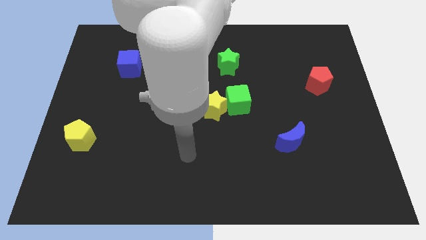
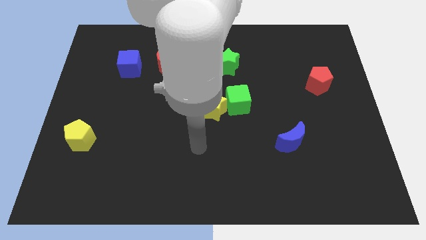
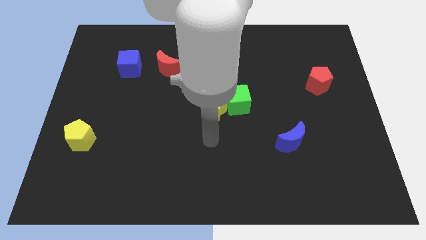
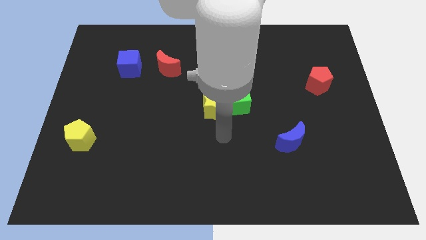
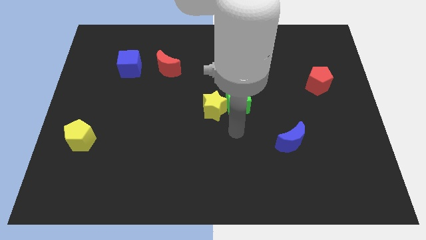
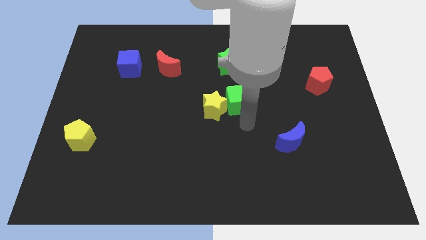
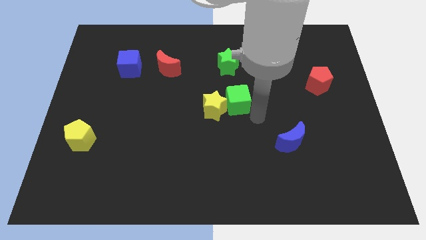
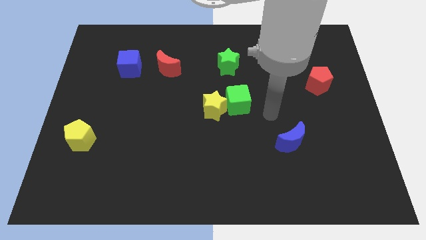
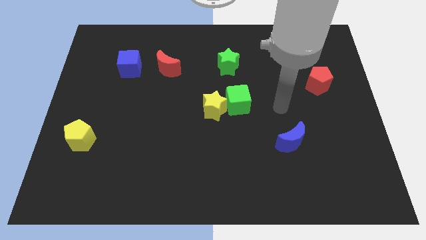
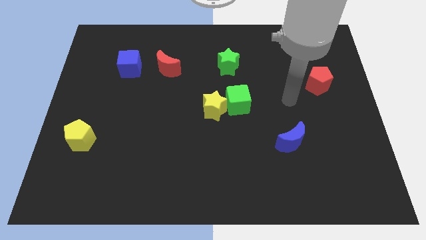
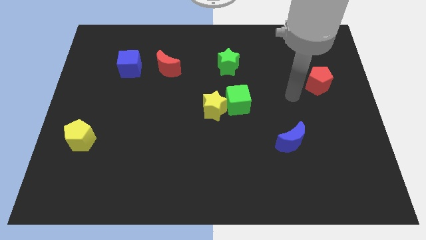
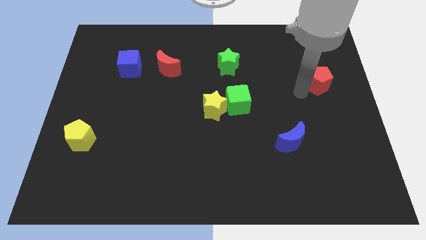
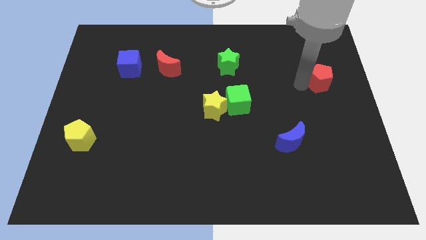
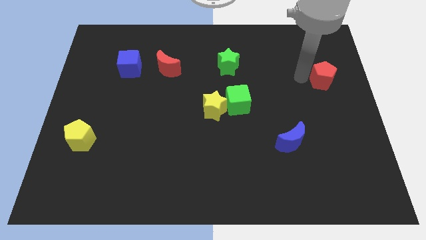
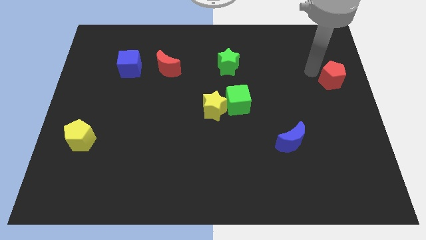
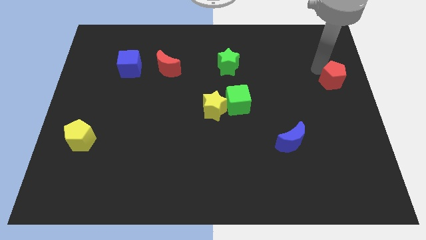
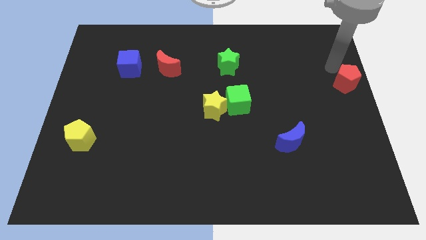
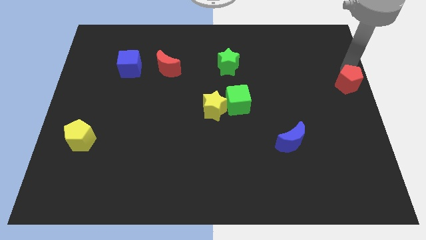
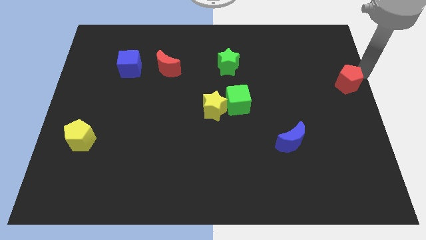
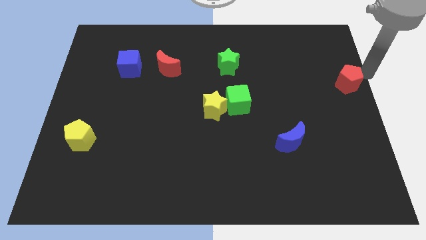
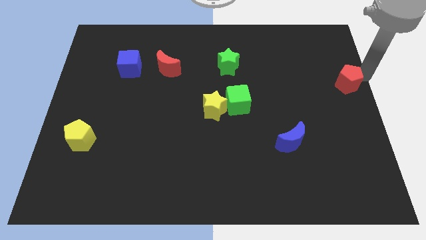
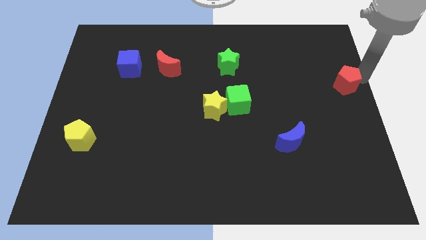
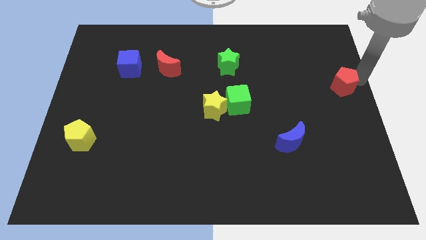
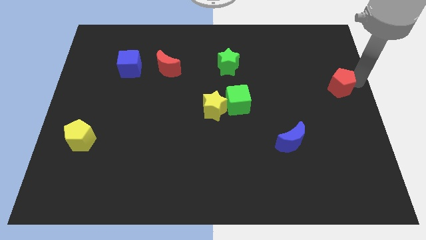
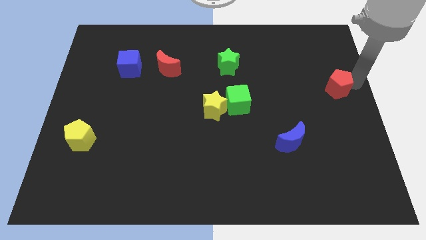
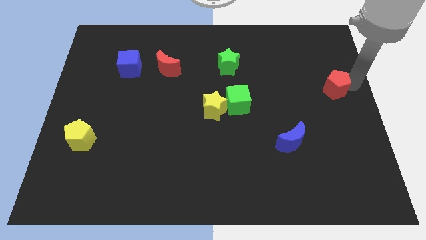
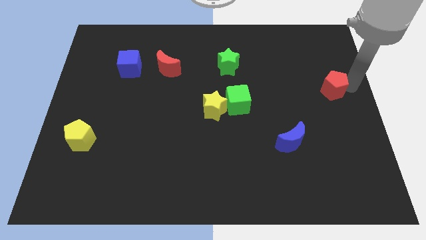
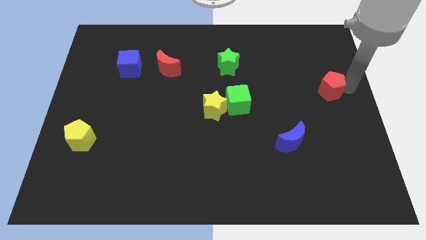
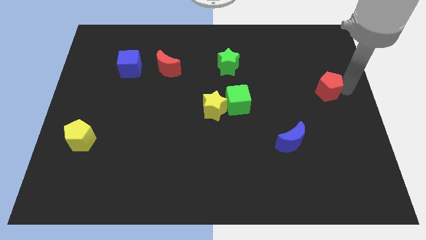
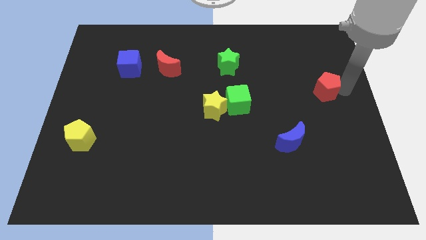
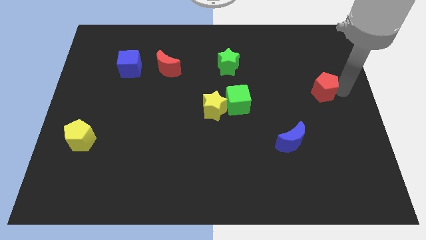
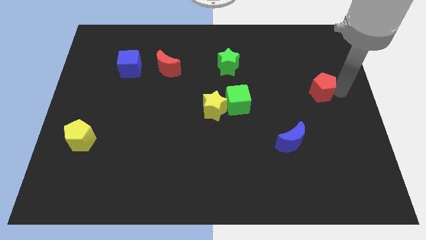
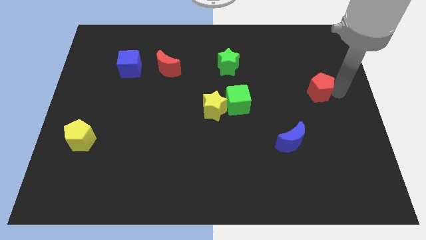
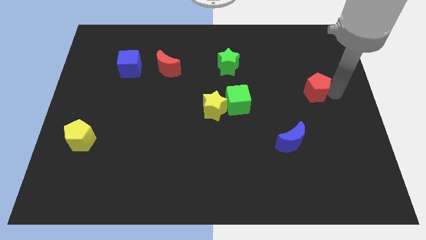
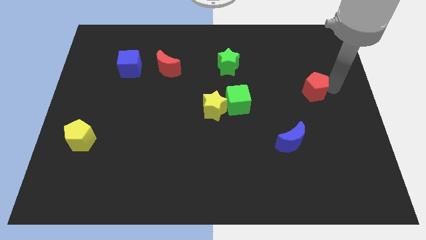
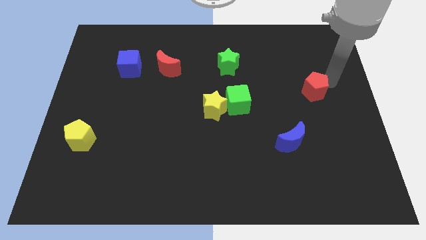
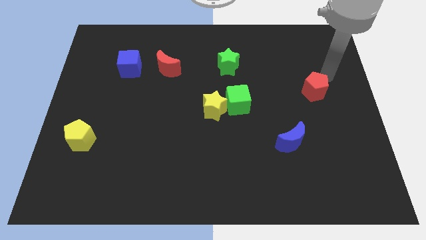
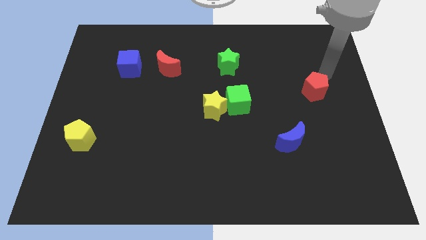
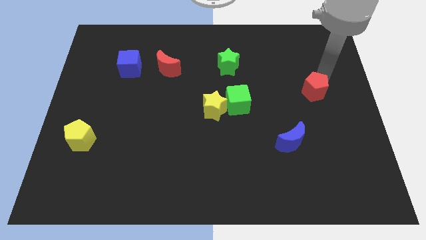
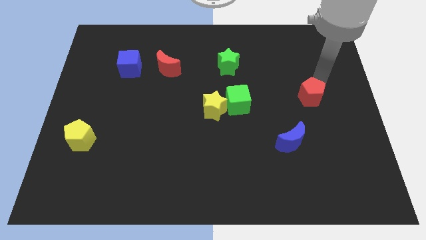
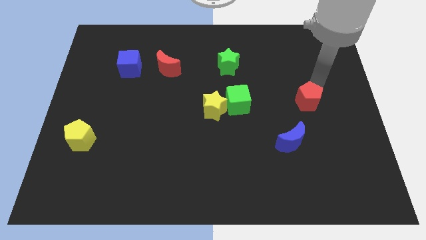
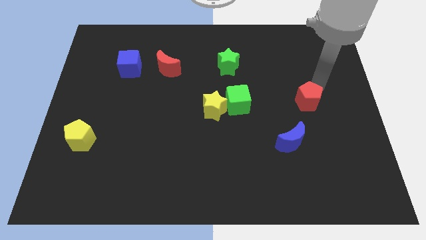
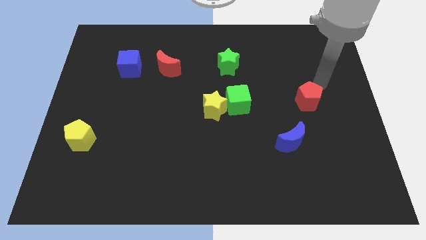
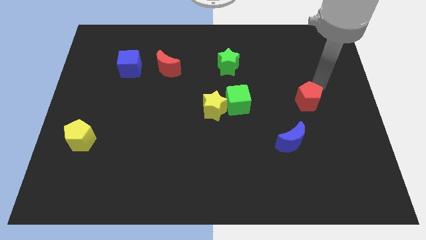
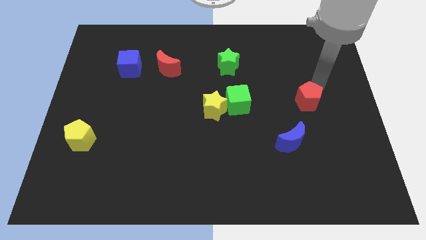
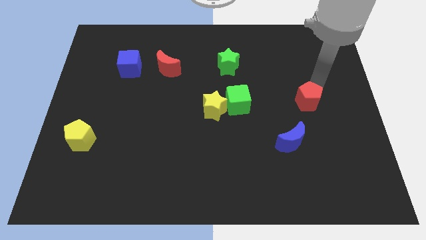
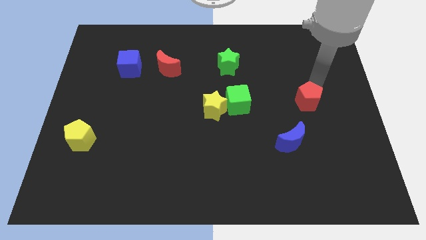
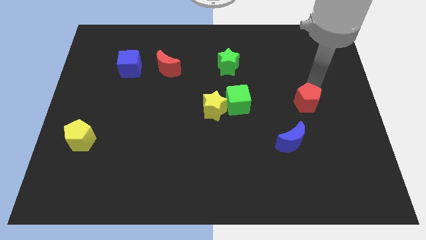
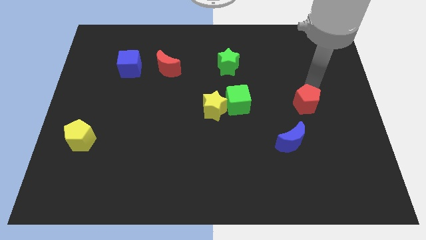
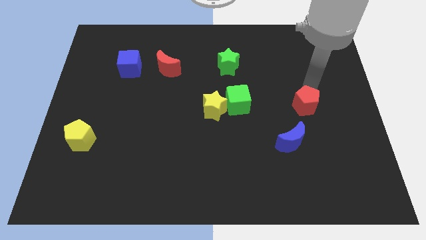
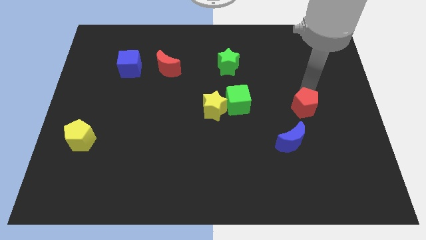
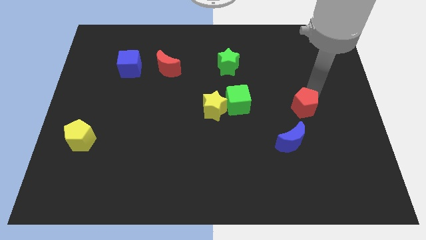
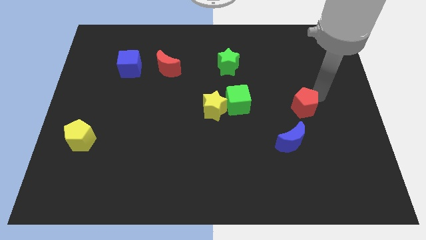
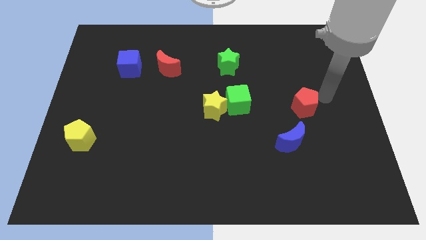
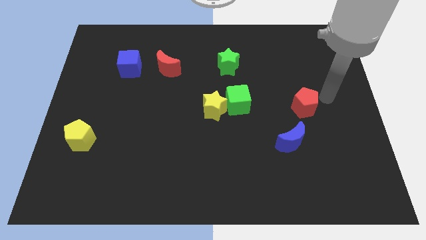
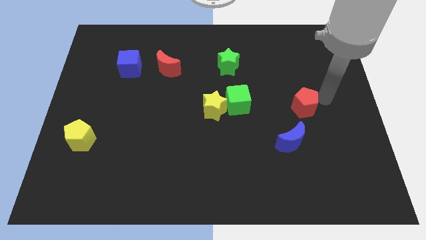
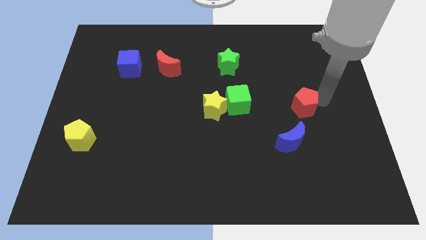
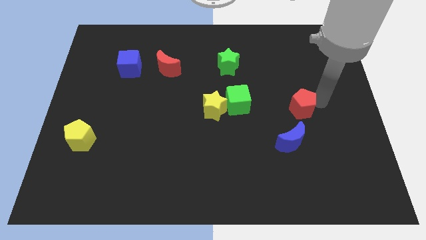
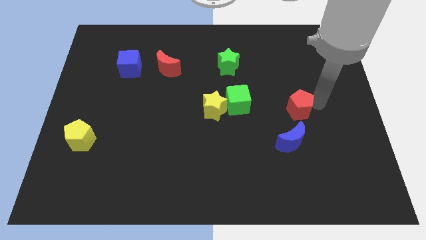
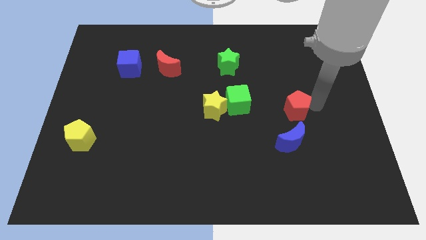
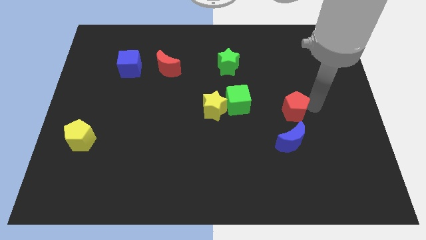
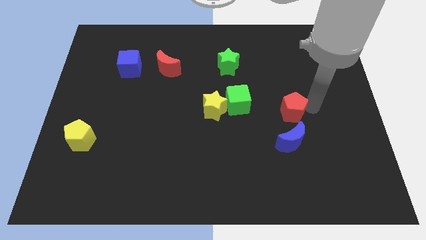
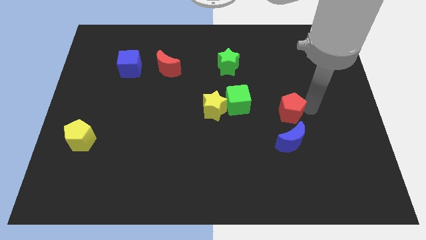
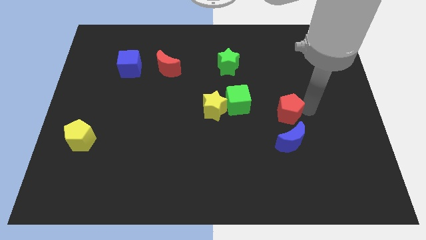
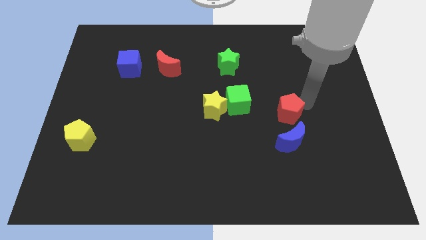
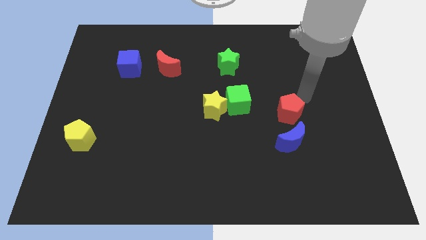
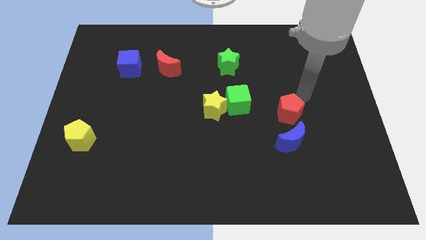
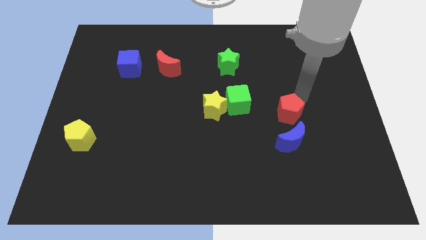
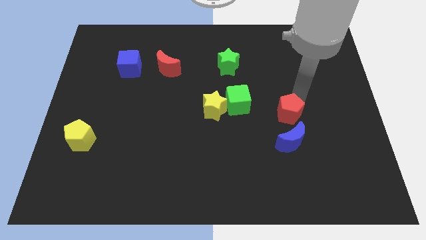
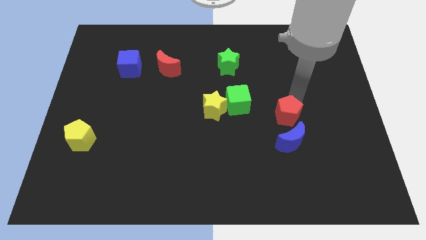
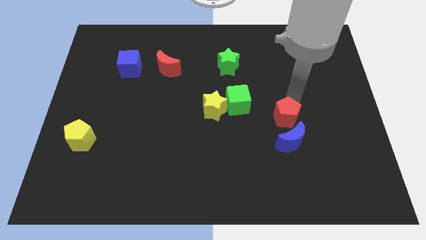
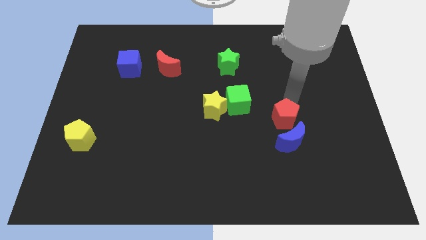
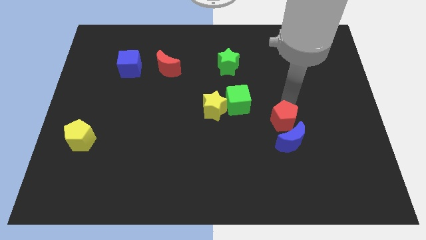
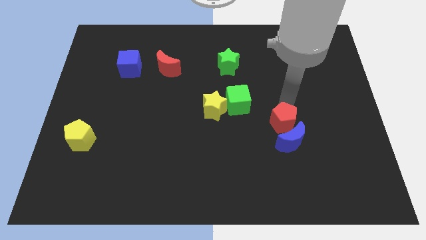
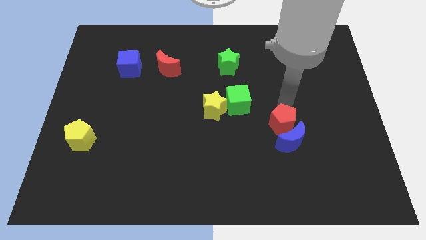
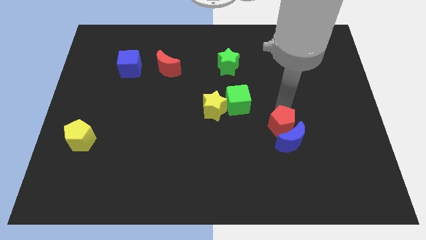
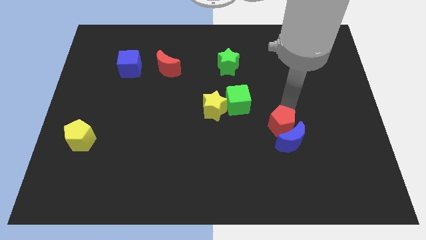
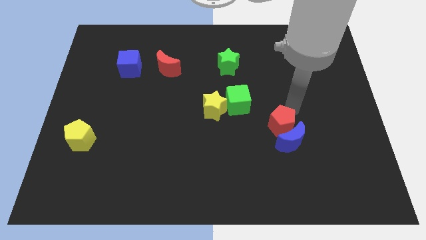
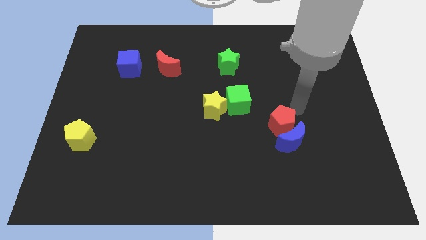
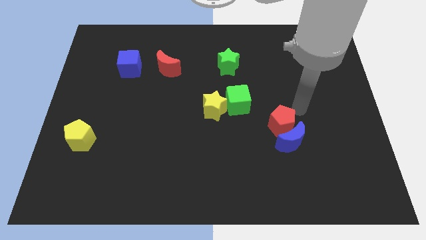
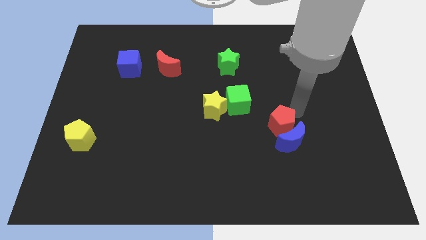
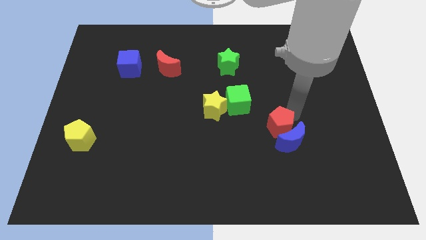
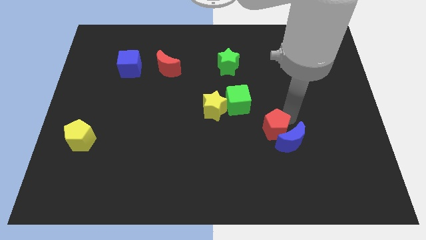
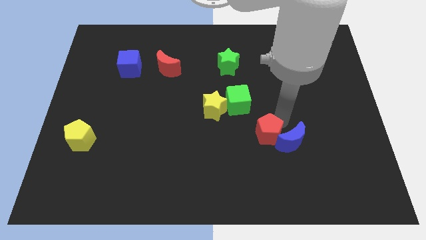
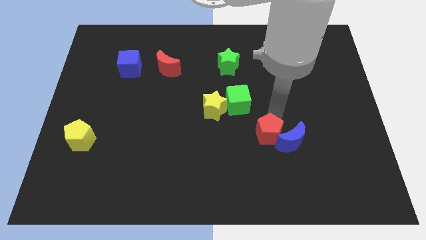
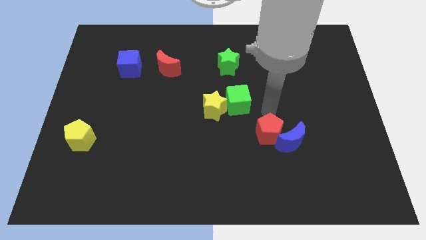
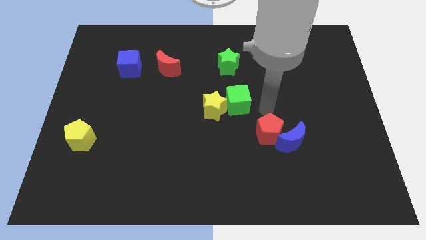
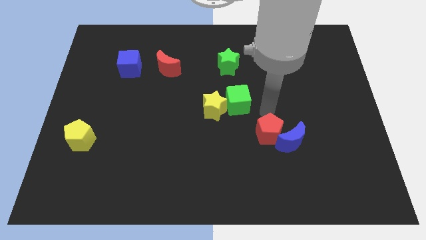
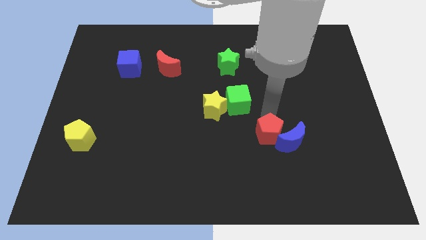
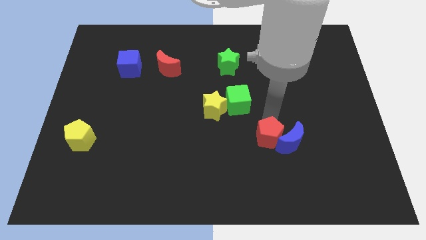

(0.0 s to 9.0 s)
slide the red pentagon diagonally down and to the left of the blue moon
